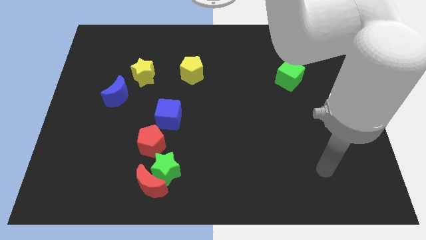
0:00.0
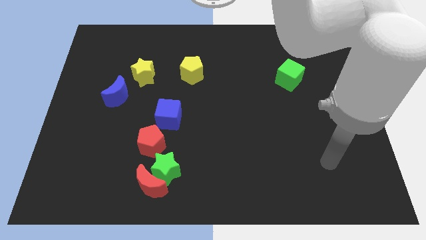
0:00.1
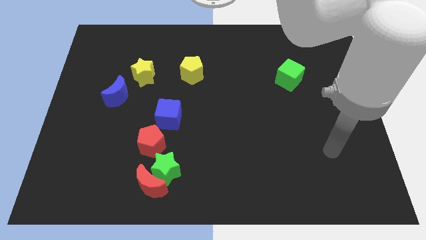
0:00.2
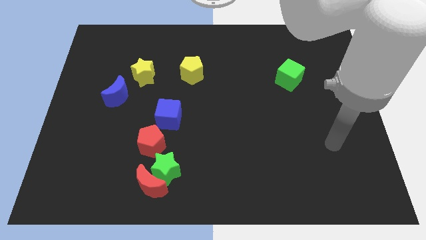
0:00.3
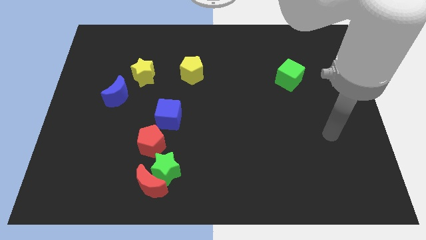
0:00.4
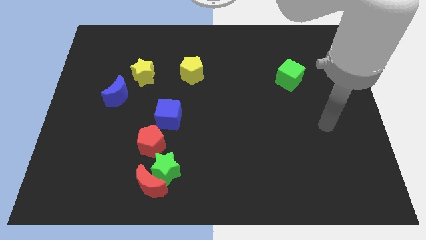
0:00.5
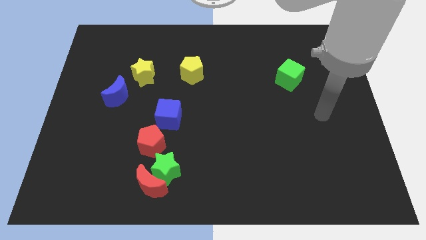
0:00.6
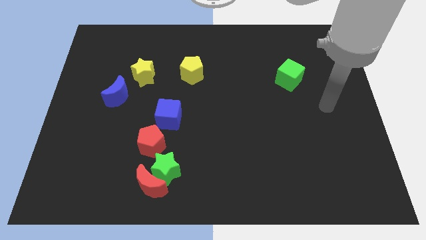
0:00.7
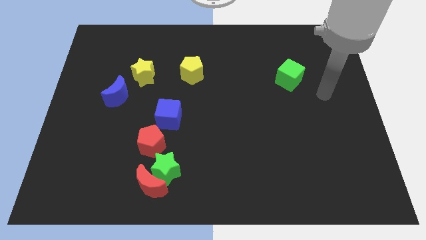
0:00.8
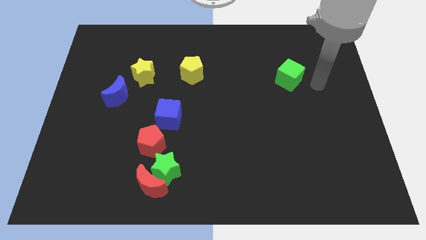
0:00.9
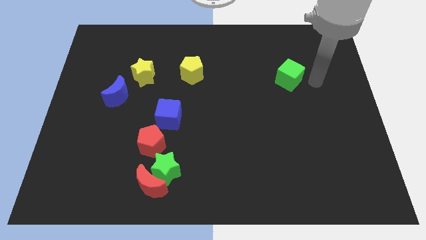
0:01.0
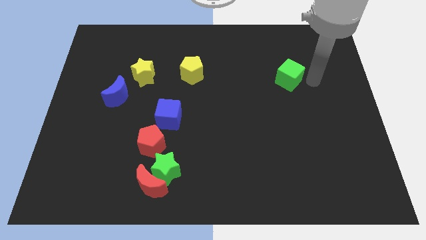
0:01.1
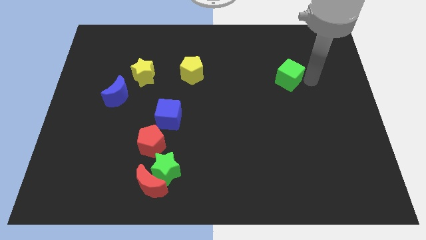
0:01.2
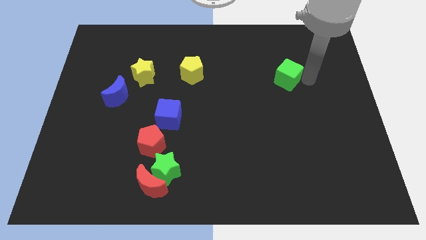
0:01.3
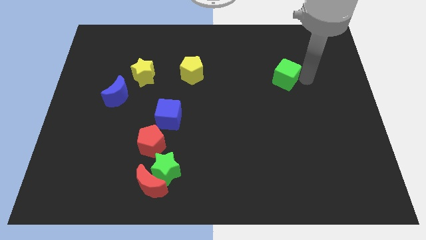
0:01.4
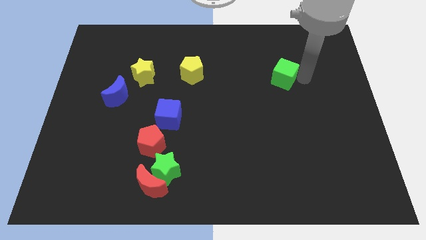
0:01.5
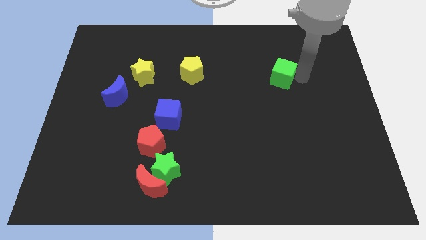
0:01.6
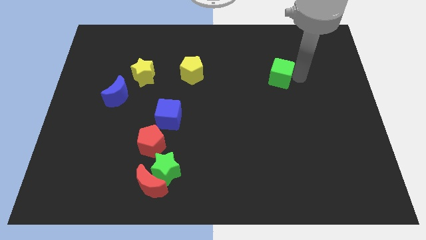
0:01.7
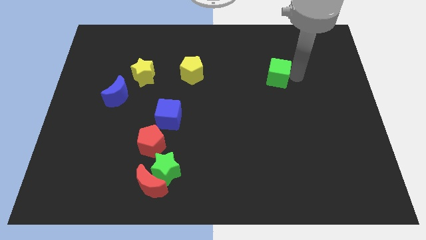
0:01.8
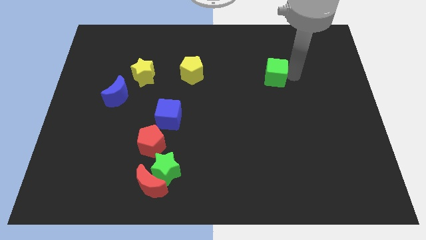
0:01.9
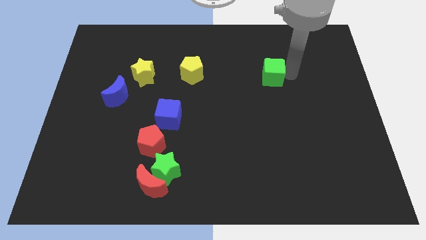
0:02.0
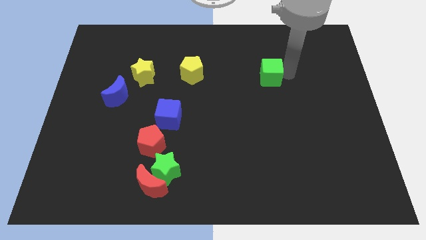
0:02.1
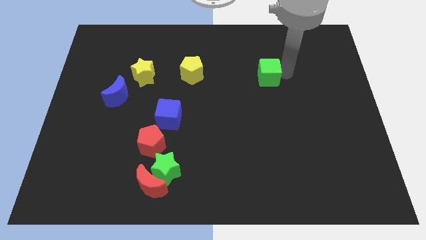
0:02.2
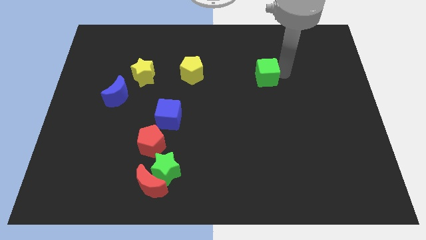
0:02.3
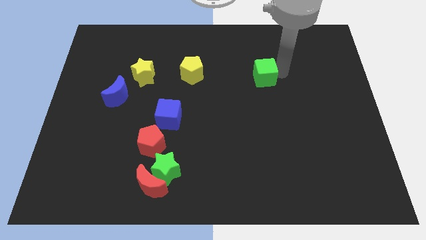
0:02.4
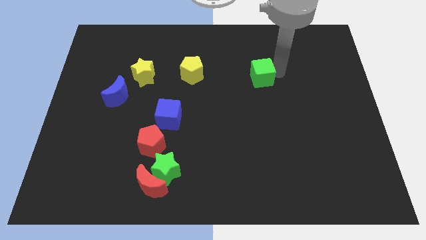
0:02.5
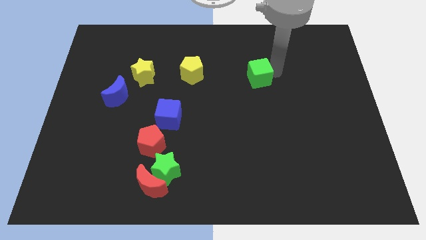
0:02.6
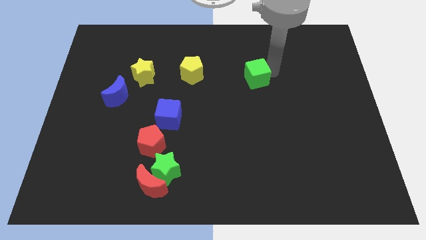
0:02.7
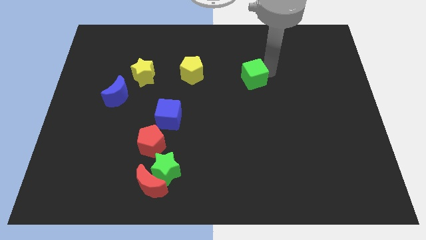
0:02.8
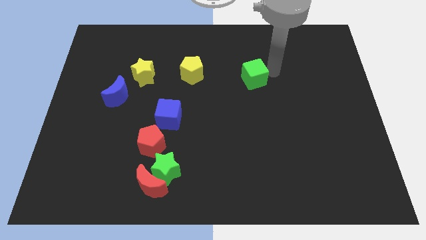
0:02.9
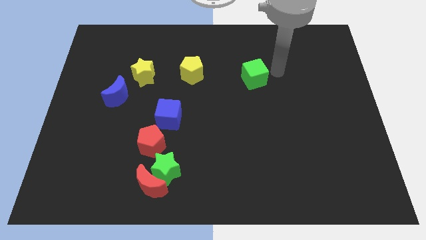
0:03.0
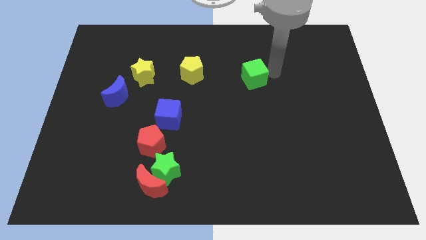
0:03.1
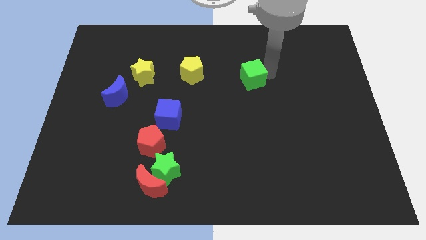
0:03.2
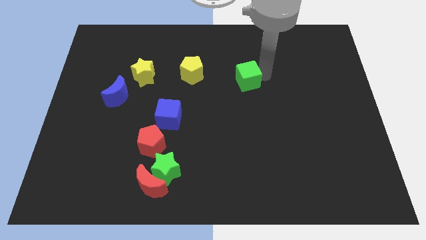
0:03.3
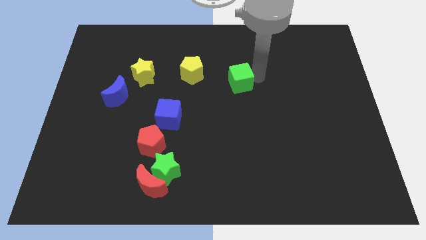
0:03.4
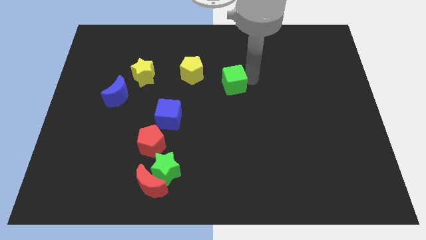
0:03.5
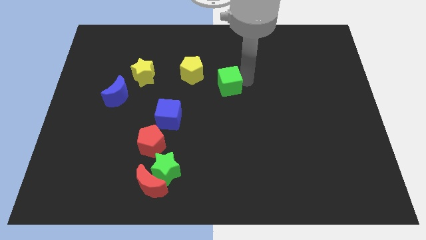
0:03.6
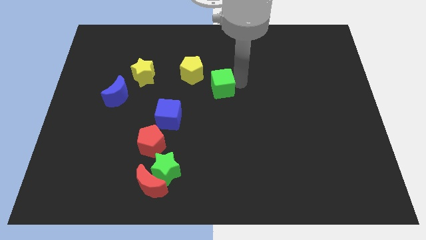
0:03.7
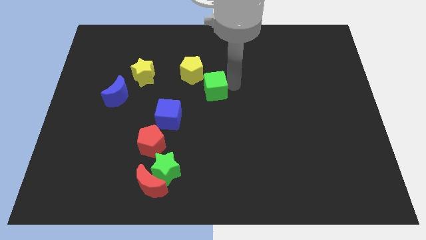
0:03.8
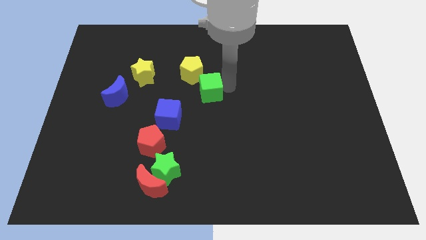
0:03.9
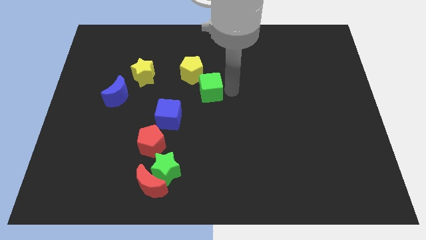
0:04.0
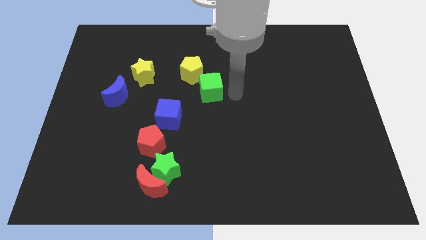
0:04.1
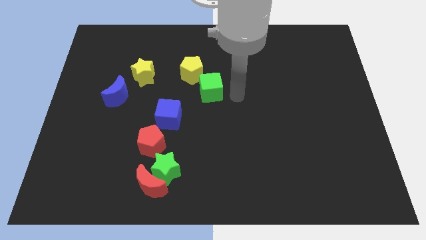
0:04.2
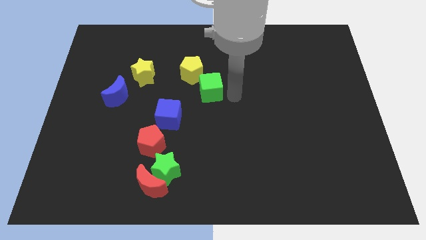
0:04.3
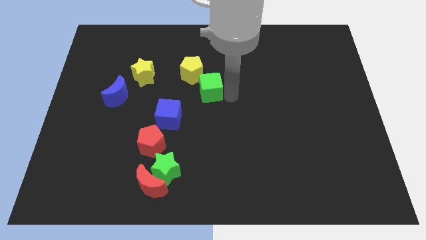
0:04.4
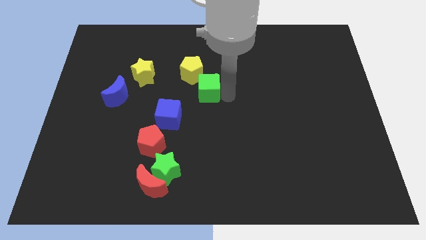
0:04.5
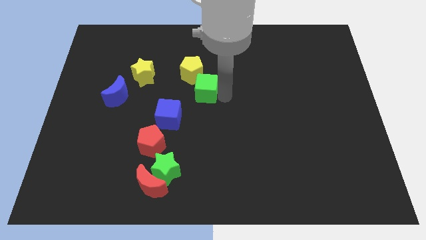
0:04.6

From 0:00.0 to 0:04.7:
move the green cube to the left

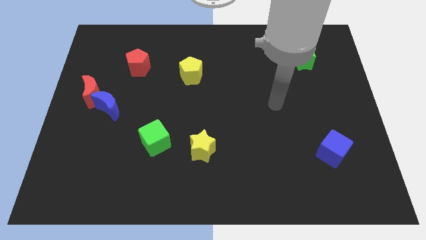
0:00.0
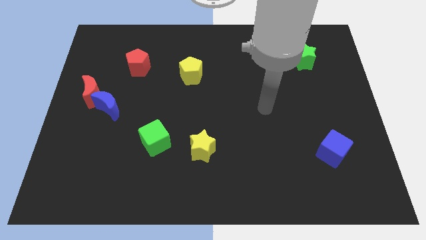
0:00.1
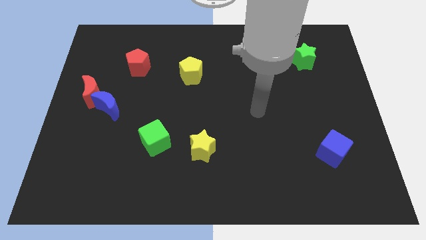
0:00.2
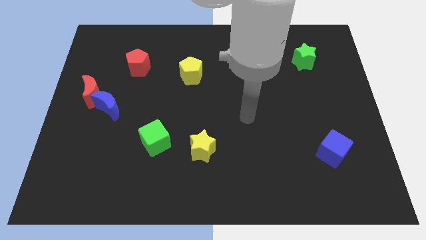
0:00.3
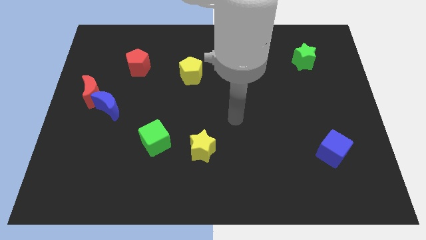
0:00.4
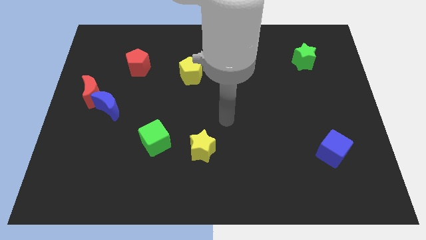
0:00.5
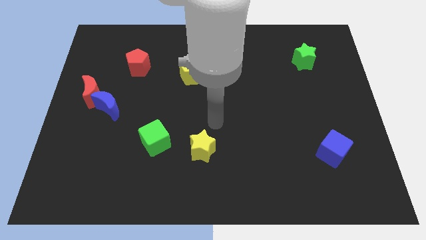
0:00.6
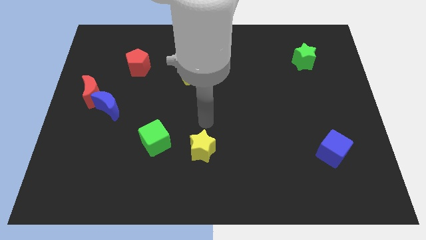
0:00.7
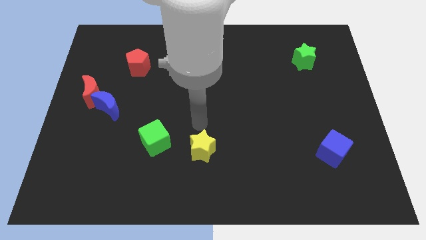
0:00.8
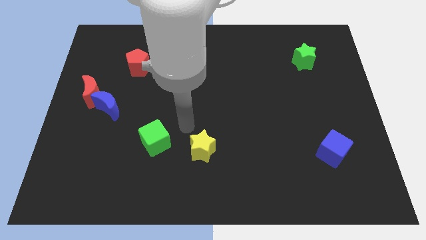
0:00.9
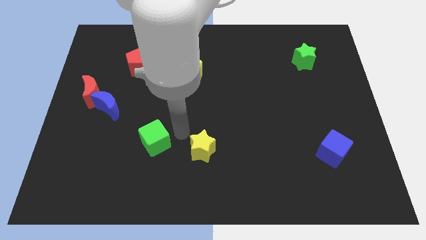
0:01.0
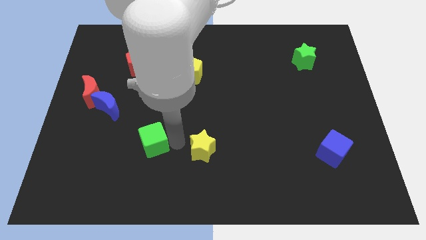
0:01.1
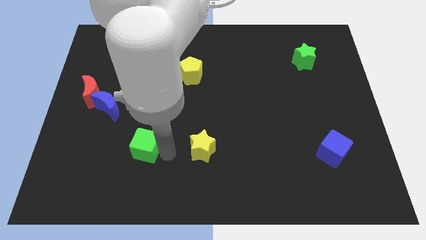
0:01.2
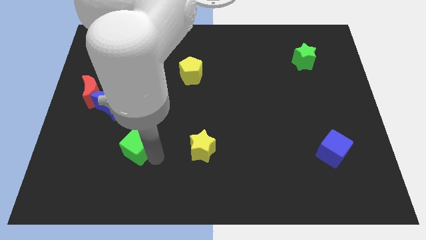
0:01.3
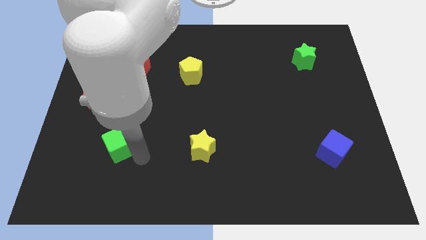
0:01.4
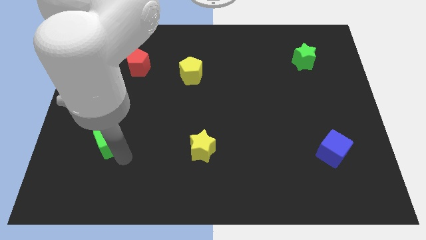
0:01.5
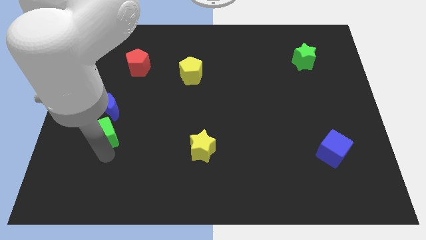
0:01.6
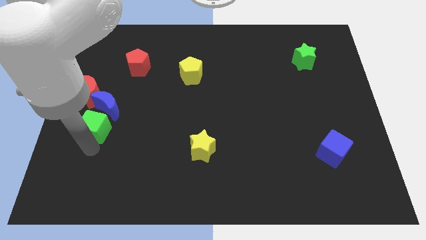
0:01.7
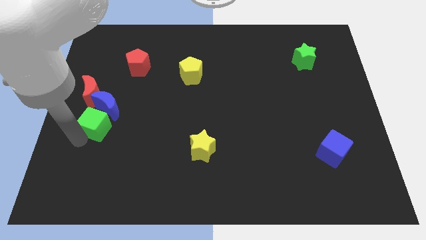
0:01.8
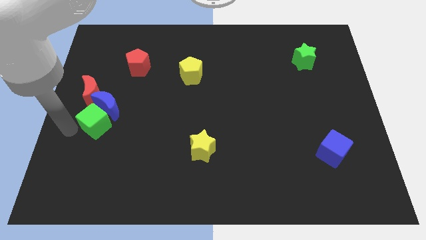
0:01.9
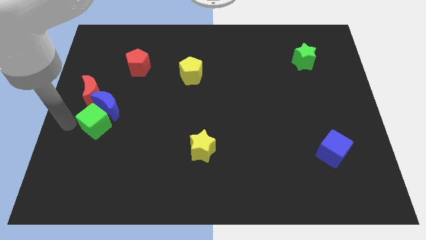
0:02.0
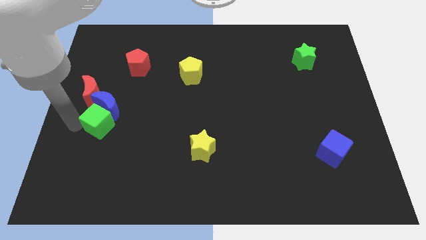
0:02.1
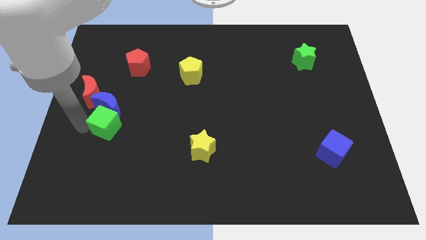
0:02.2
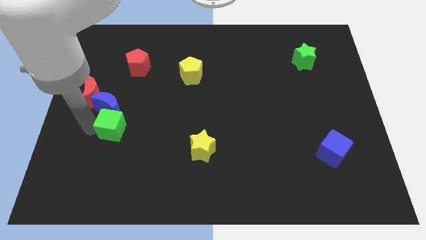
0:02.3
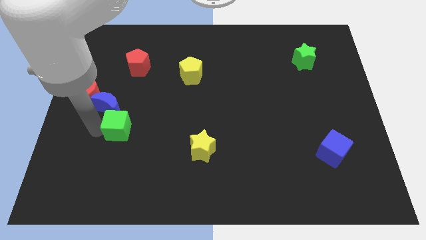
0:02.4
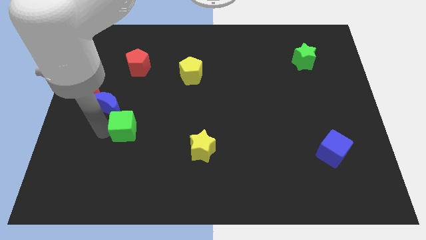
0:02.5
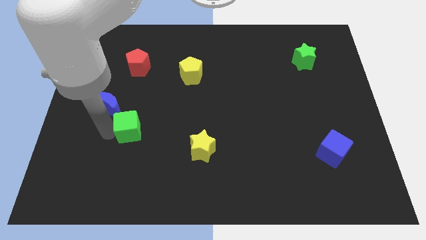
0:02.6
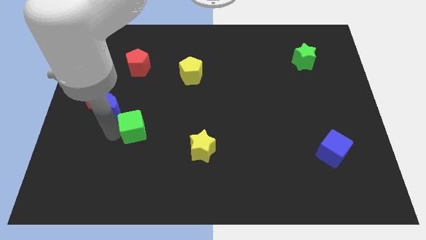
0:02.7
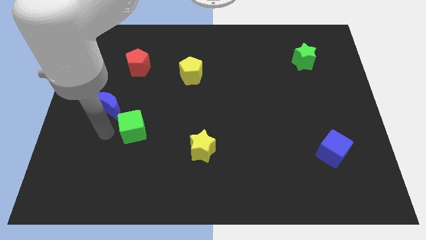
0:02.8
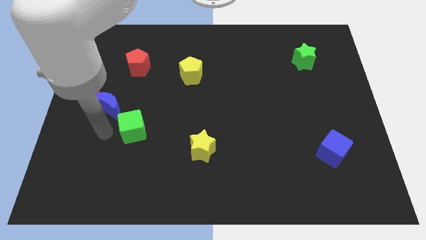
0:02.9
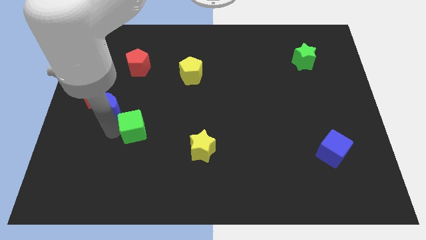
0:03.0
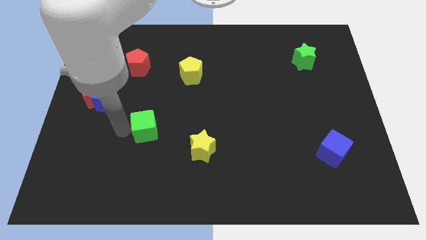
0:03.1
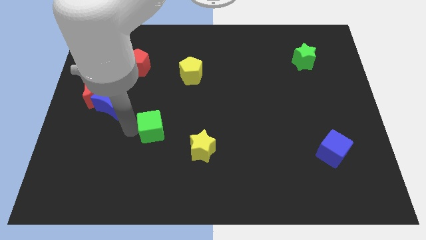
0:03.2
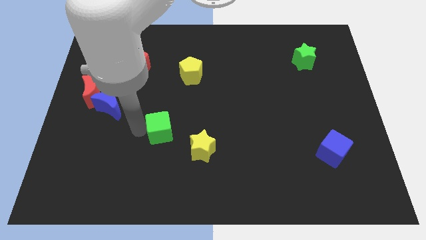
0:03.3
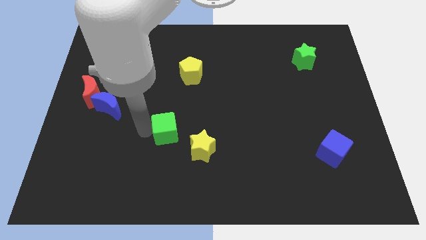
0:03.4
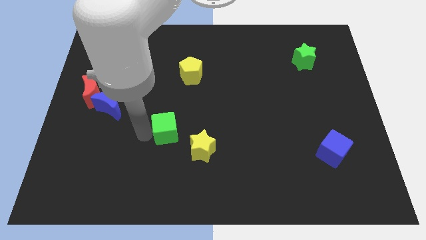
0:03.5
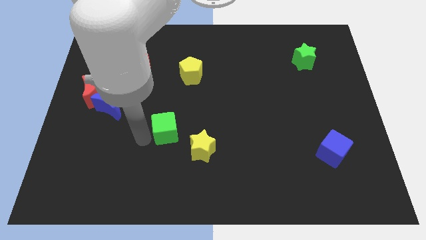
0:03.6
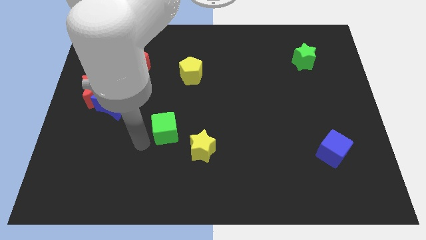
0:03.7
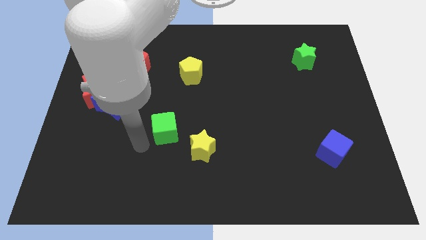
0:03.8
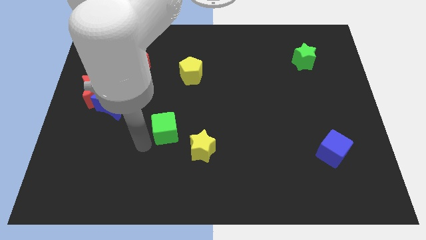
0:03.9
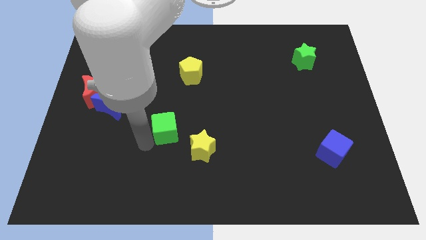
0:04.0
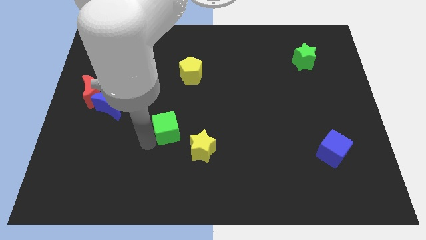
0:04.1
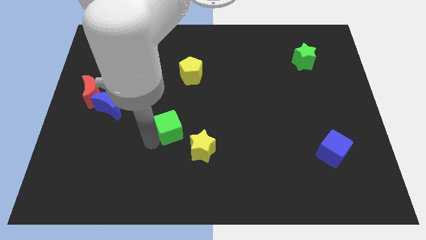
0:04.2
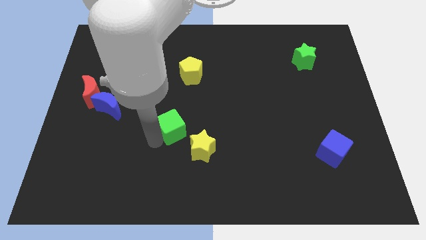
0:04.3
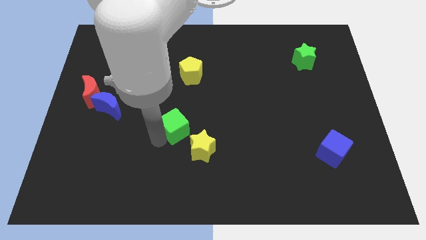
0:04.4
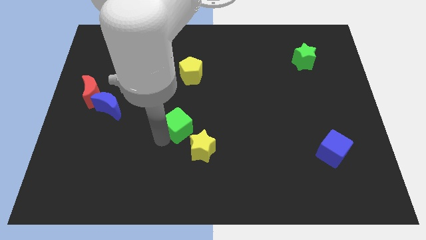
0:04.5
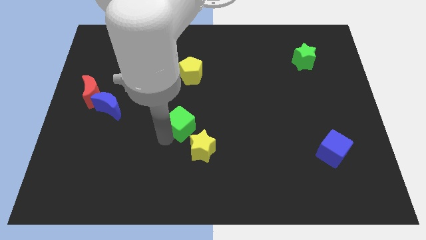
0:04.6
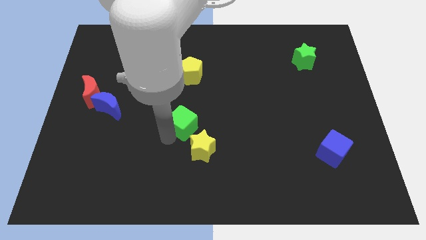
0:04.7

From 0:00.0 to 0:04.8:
move the green cube diagonally upwards and to the right somewhat
